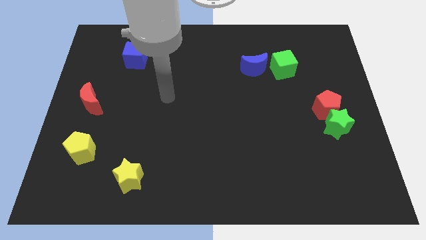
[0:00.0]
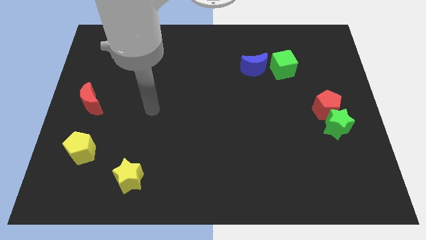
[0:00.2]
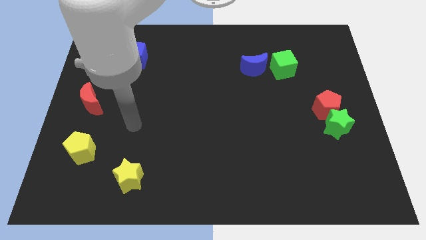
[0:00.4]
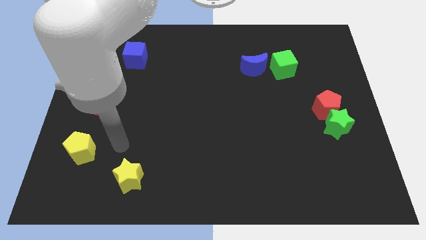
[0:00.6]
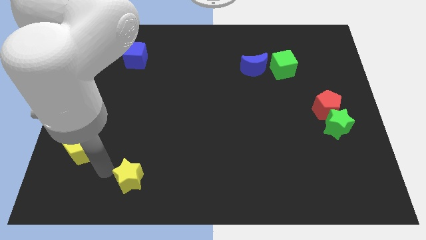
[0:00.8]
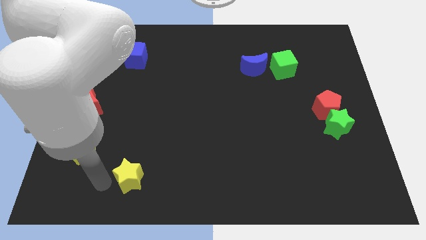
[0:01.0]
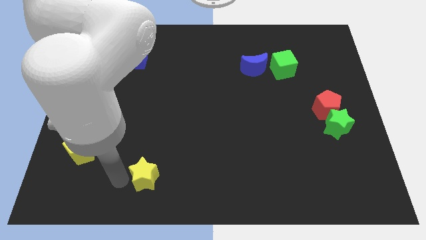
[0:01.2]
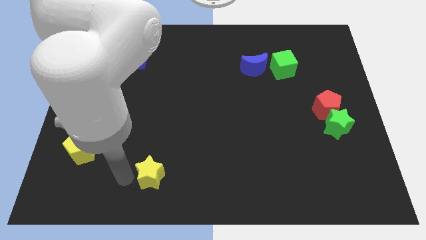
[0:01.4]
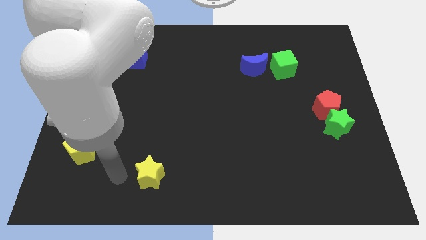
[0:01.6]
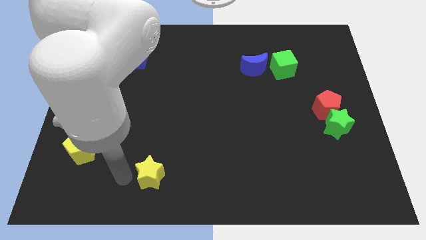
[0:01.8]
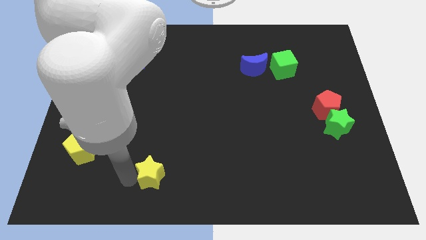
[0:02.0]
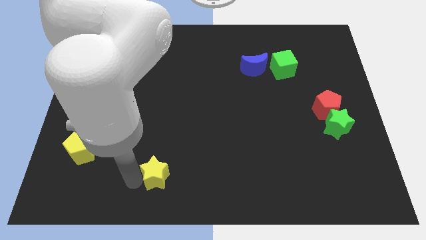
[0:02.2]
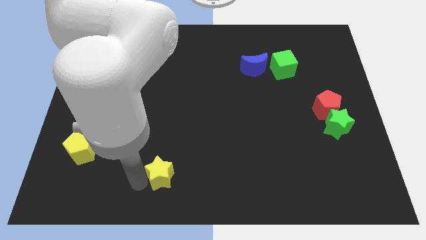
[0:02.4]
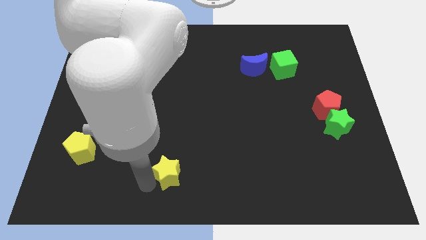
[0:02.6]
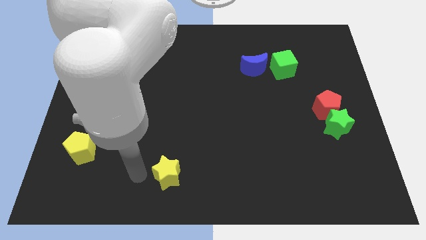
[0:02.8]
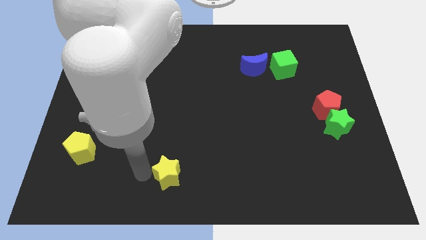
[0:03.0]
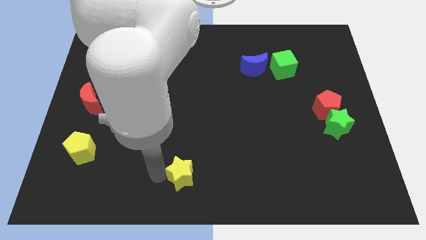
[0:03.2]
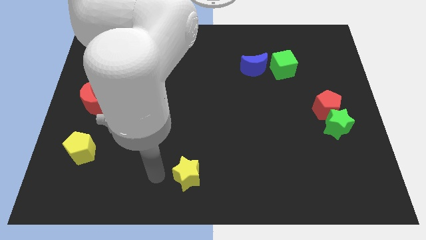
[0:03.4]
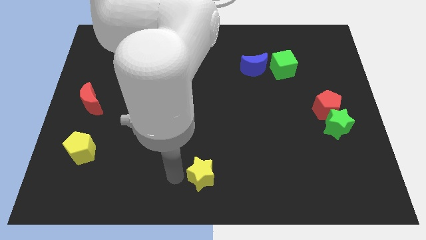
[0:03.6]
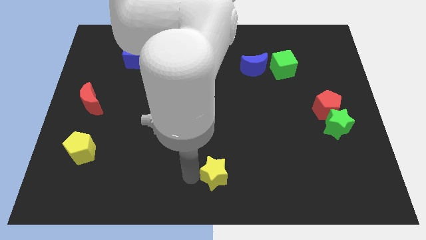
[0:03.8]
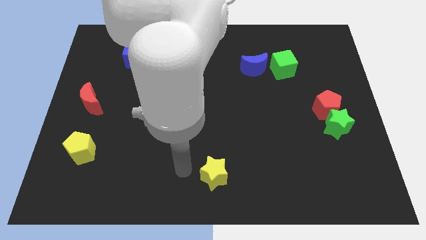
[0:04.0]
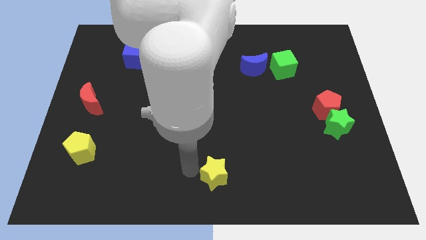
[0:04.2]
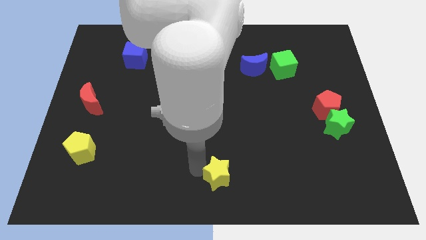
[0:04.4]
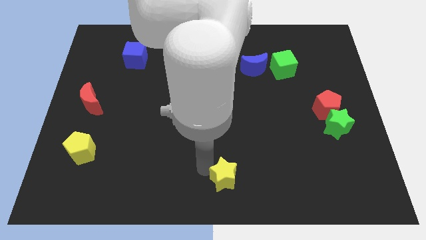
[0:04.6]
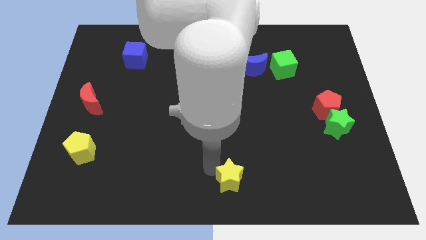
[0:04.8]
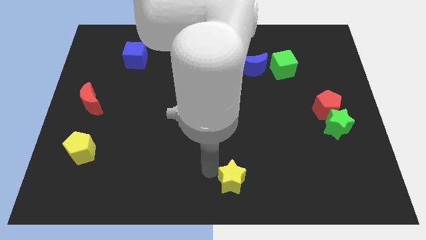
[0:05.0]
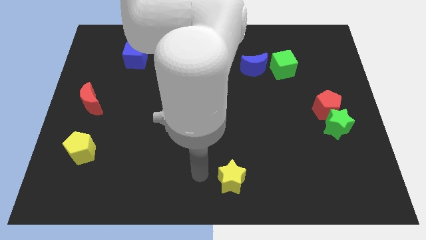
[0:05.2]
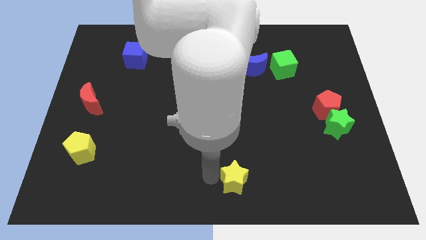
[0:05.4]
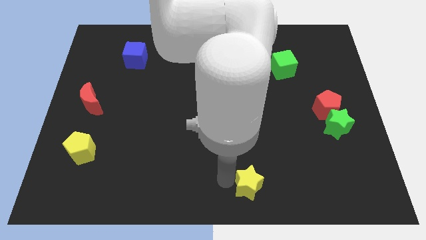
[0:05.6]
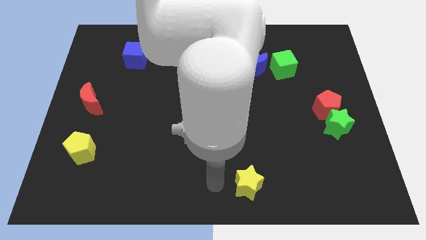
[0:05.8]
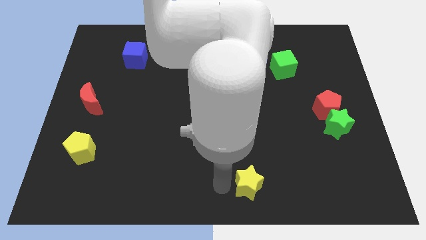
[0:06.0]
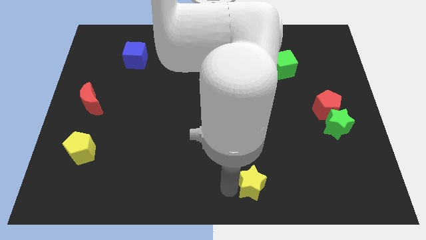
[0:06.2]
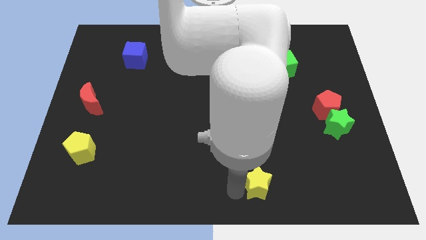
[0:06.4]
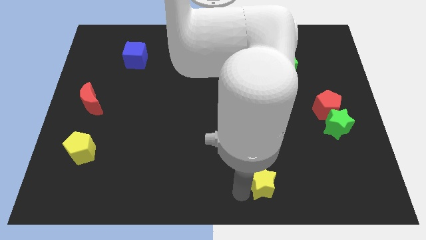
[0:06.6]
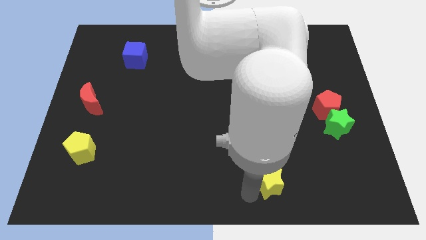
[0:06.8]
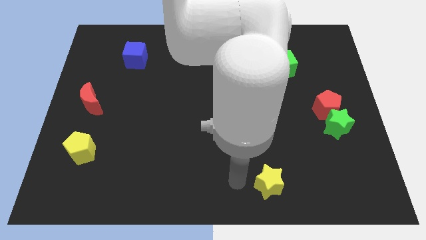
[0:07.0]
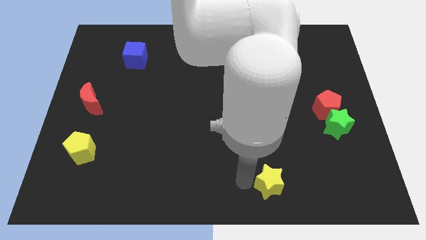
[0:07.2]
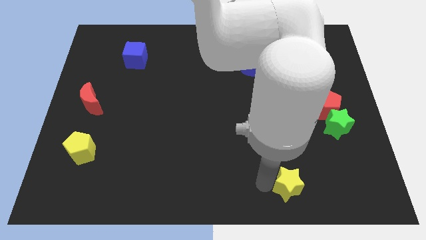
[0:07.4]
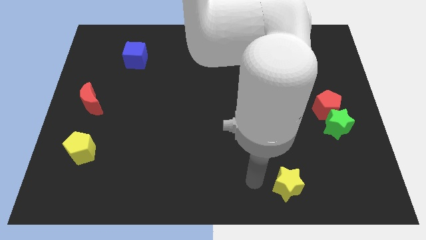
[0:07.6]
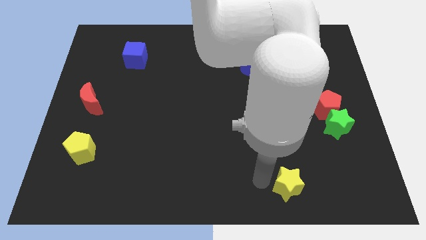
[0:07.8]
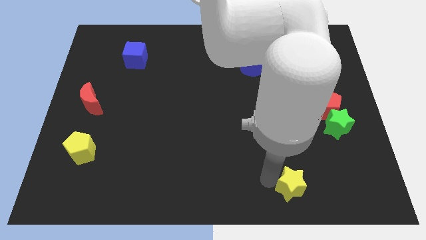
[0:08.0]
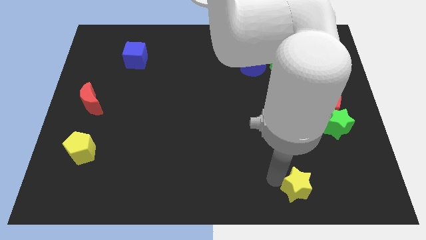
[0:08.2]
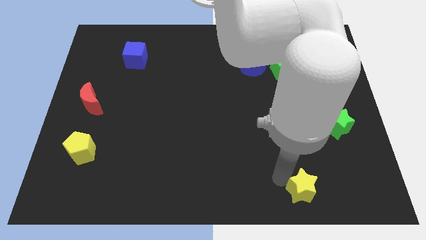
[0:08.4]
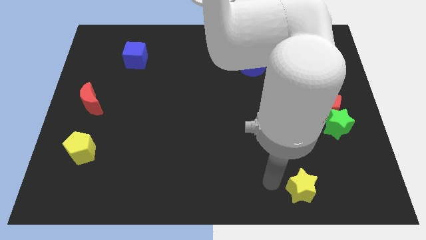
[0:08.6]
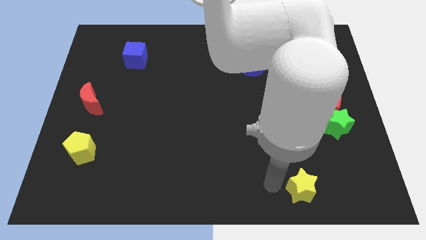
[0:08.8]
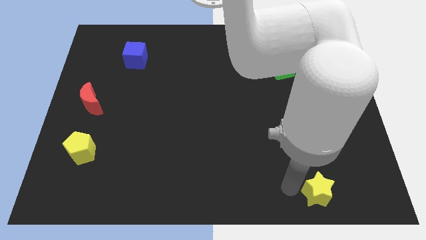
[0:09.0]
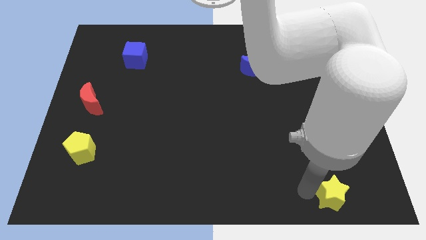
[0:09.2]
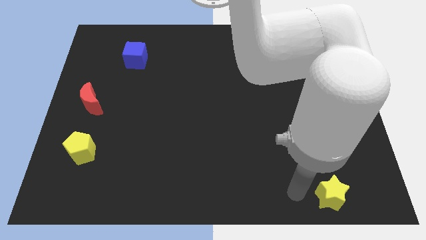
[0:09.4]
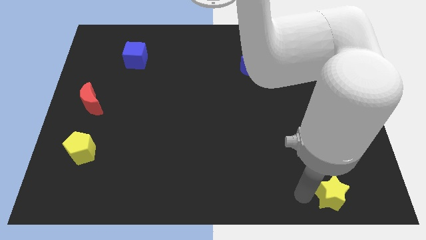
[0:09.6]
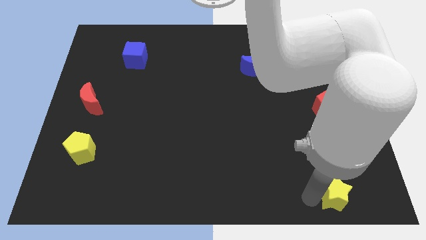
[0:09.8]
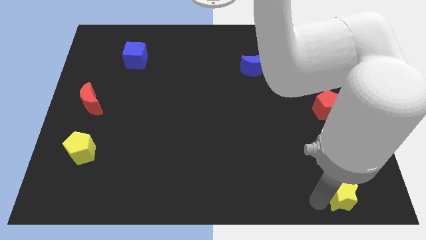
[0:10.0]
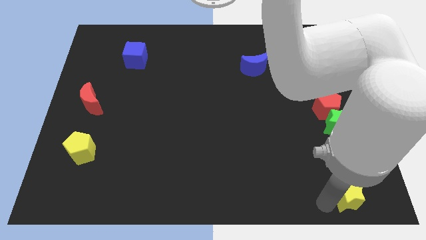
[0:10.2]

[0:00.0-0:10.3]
slide the yellow star to the bottom right
